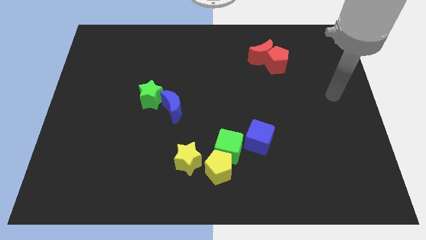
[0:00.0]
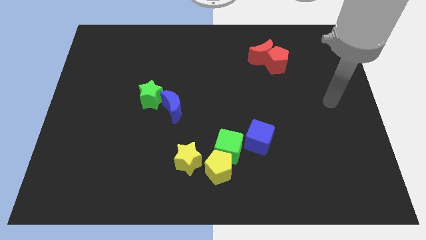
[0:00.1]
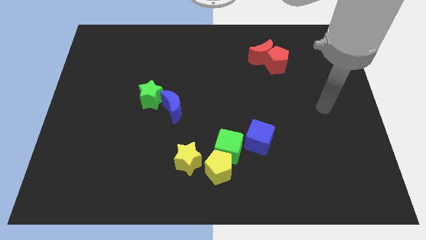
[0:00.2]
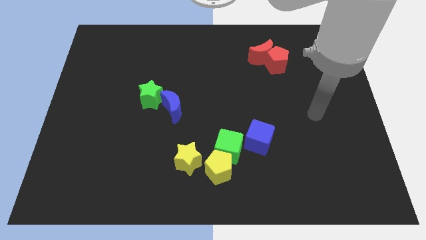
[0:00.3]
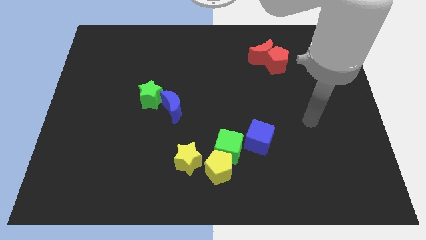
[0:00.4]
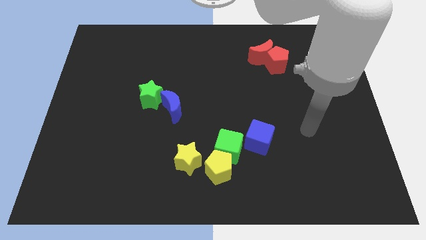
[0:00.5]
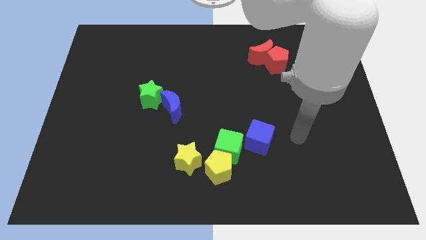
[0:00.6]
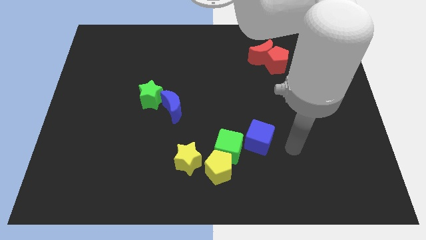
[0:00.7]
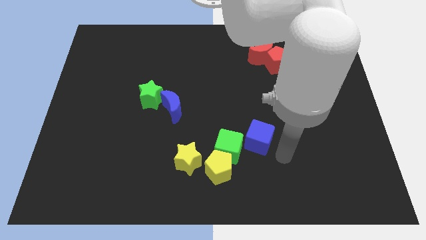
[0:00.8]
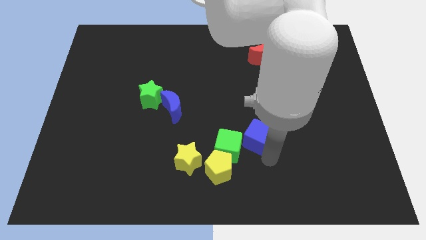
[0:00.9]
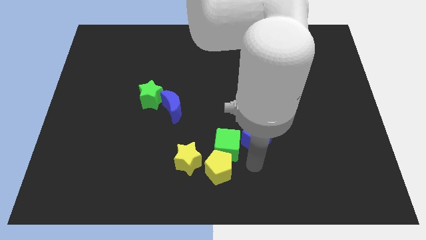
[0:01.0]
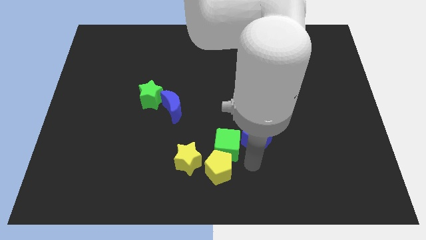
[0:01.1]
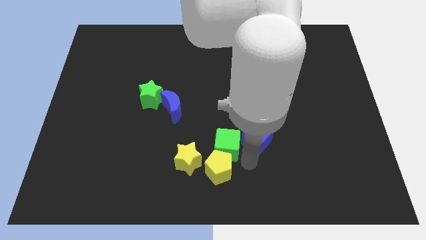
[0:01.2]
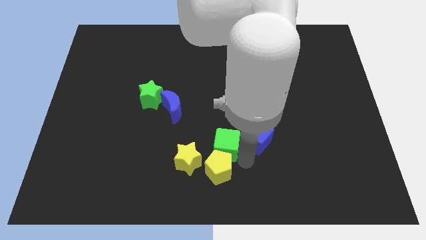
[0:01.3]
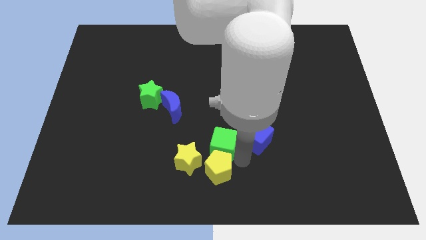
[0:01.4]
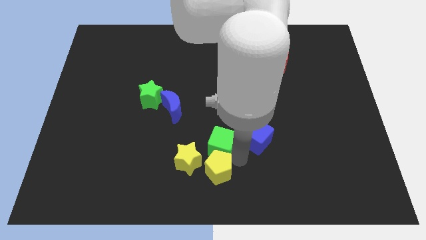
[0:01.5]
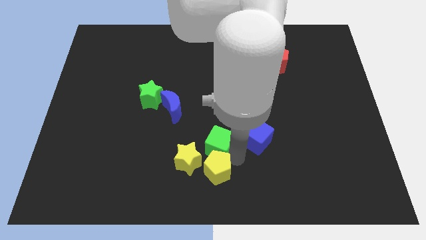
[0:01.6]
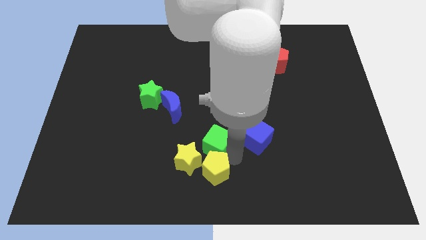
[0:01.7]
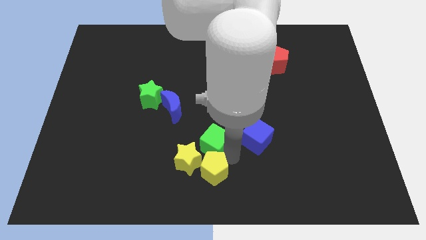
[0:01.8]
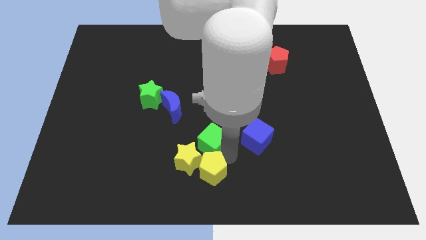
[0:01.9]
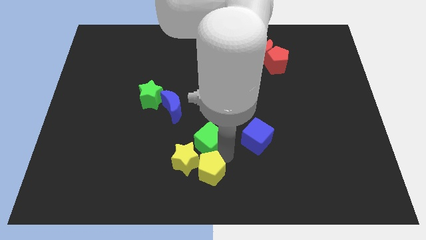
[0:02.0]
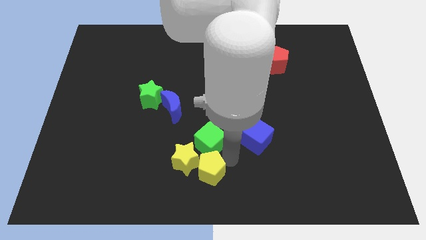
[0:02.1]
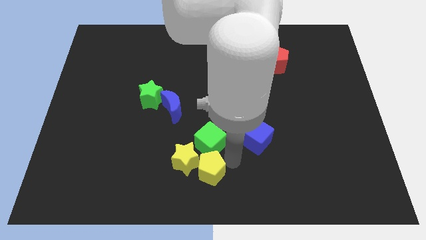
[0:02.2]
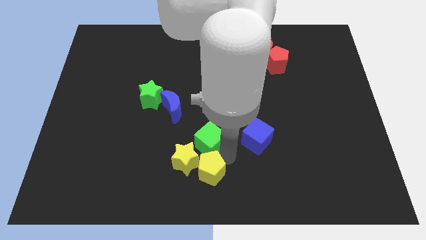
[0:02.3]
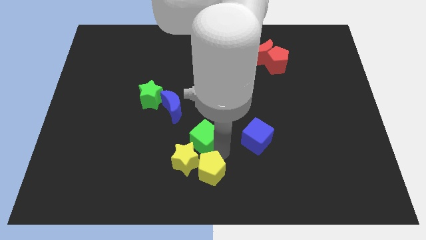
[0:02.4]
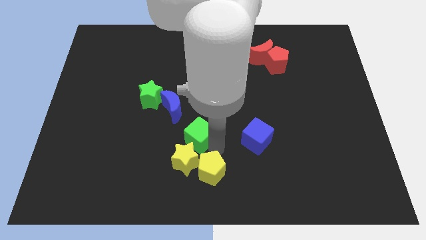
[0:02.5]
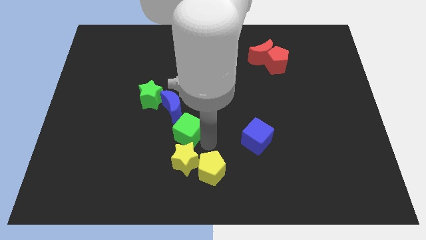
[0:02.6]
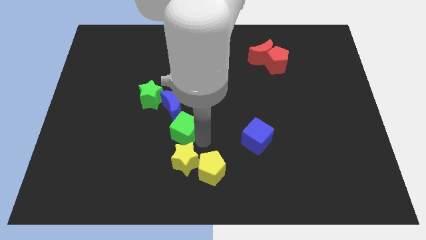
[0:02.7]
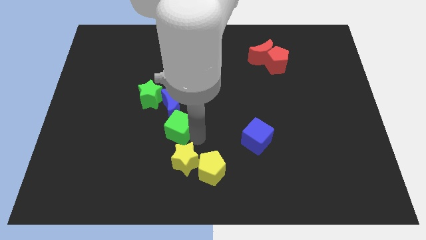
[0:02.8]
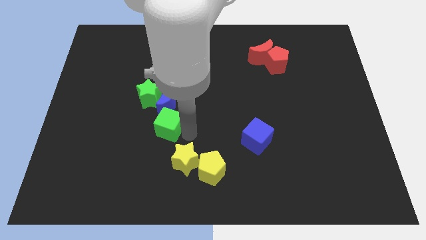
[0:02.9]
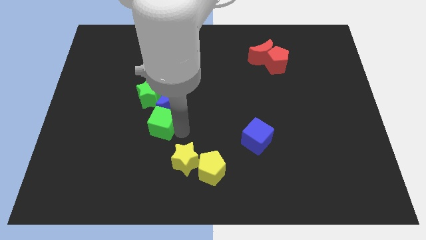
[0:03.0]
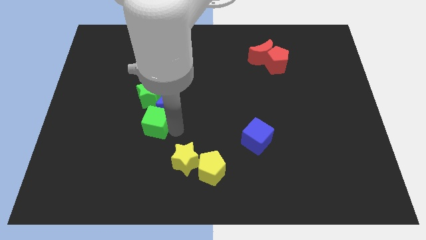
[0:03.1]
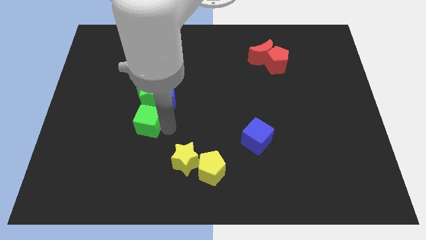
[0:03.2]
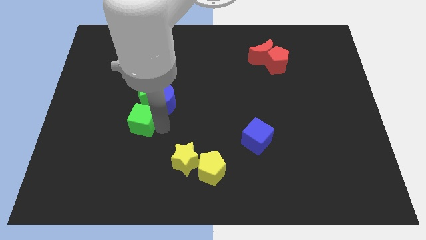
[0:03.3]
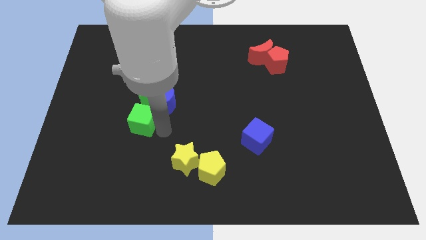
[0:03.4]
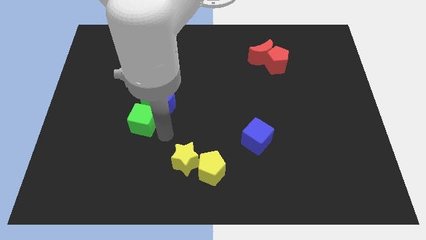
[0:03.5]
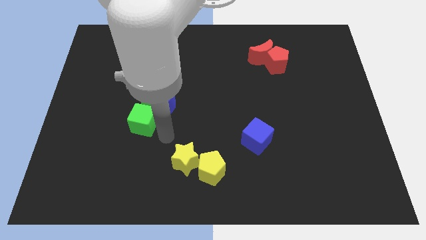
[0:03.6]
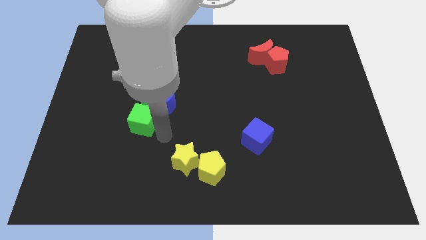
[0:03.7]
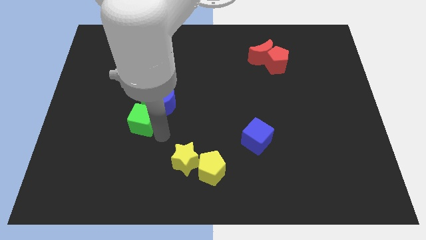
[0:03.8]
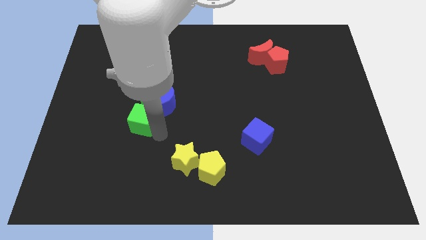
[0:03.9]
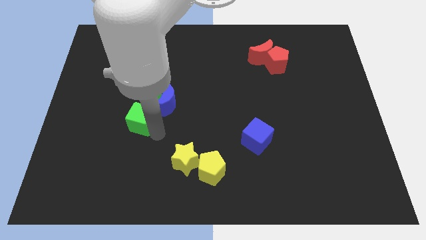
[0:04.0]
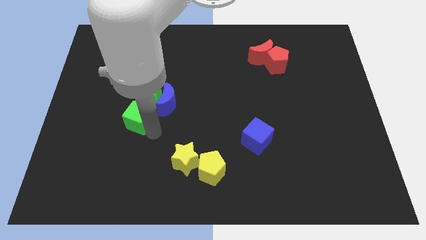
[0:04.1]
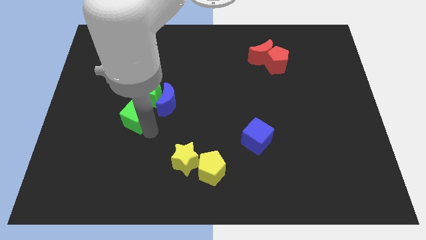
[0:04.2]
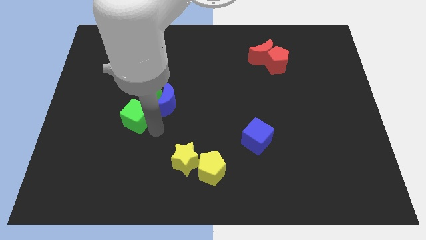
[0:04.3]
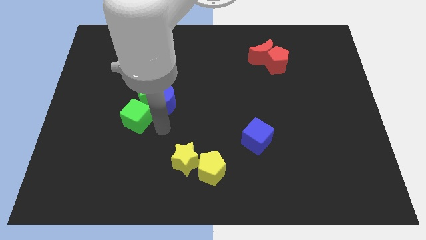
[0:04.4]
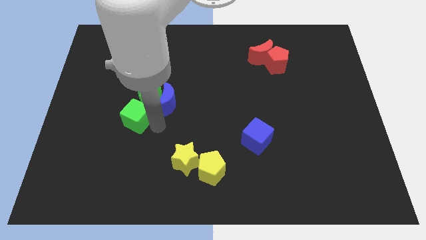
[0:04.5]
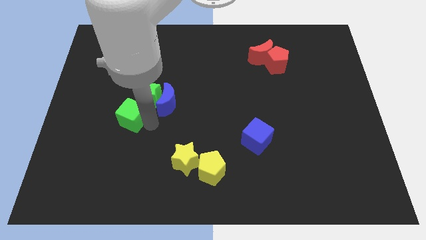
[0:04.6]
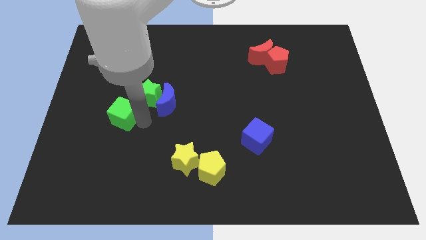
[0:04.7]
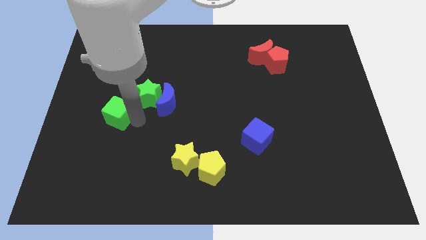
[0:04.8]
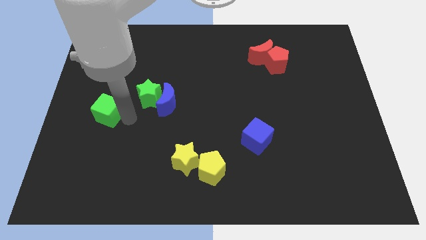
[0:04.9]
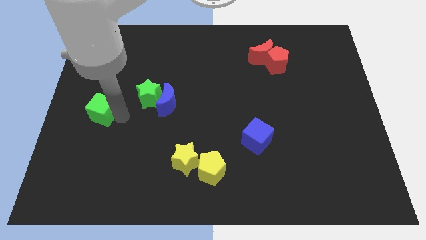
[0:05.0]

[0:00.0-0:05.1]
move the green cube to the left side of the board

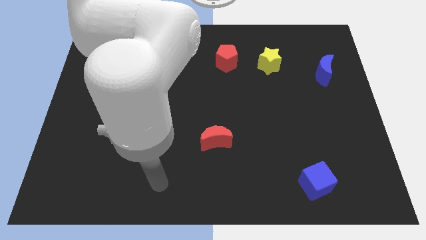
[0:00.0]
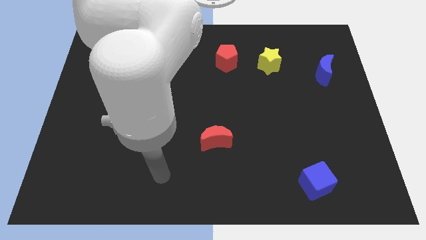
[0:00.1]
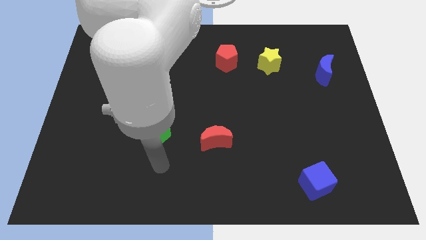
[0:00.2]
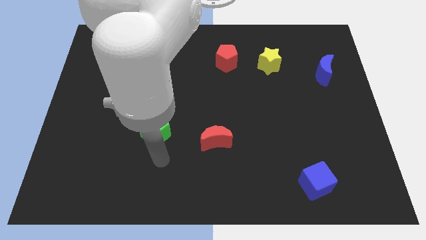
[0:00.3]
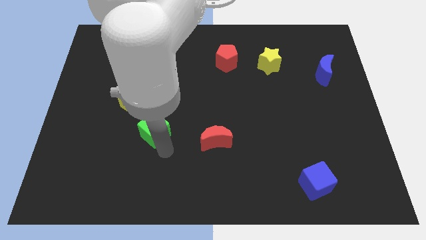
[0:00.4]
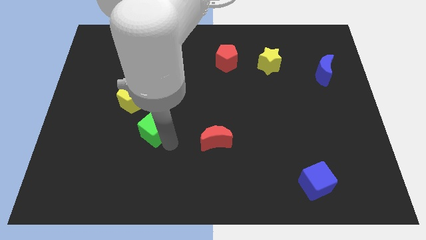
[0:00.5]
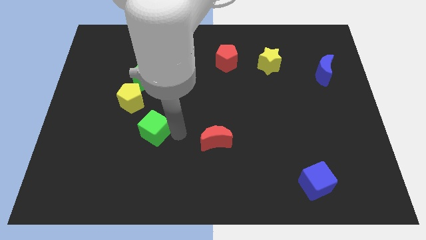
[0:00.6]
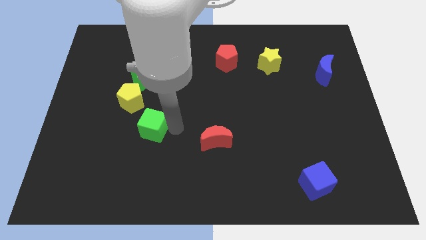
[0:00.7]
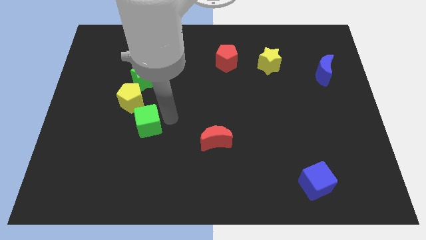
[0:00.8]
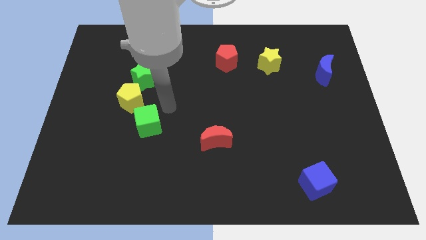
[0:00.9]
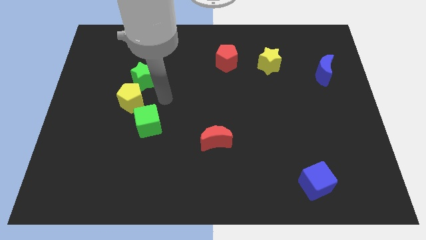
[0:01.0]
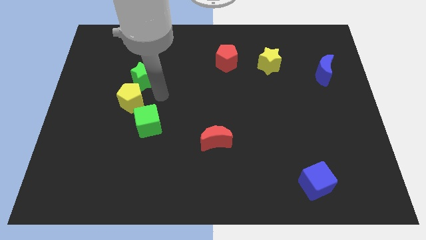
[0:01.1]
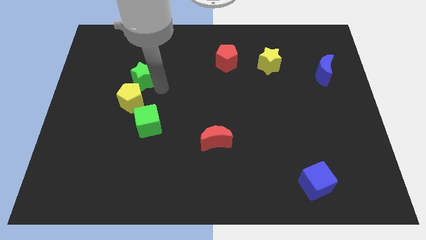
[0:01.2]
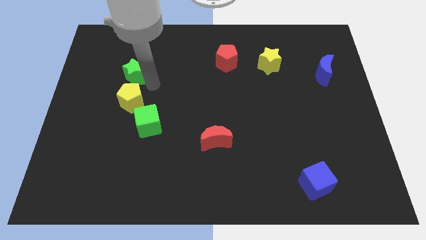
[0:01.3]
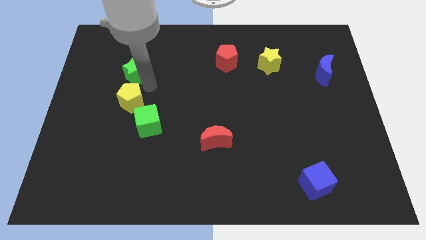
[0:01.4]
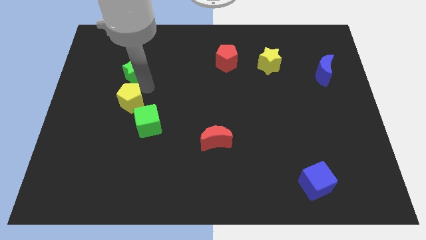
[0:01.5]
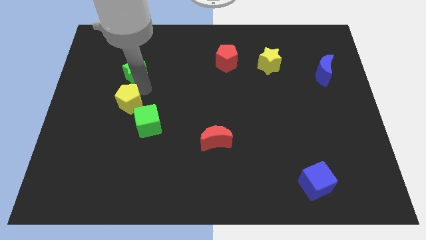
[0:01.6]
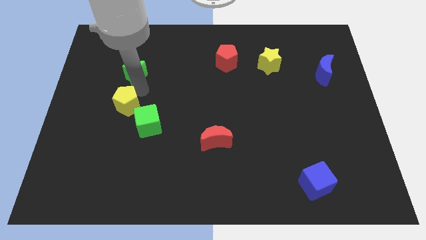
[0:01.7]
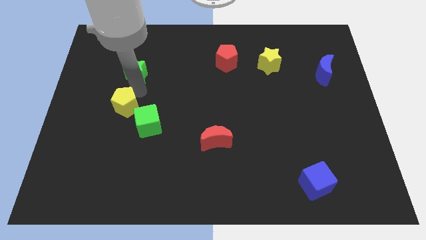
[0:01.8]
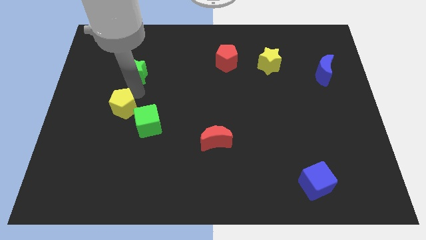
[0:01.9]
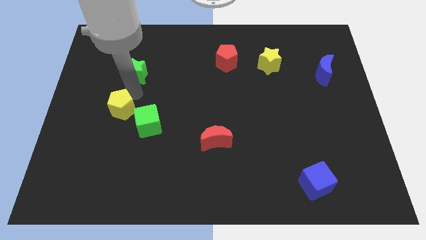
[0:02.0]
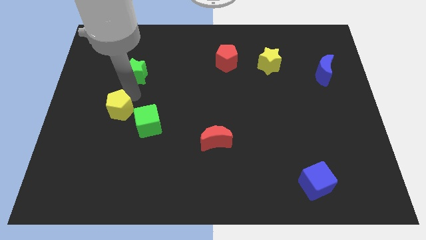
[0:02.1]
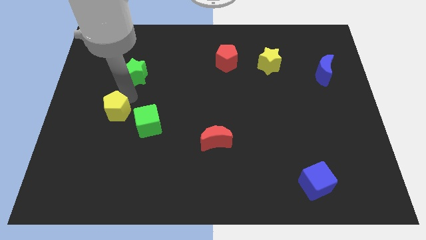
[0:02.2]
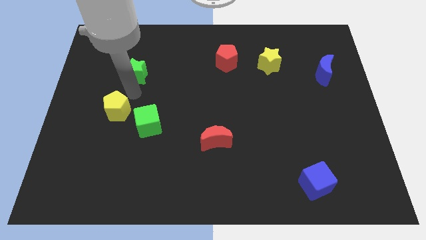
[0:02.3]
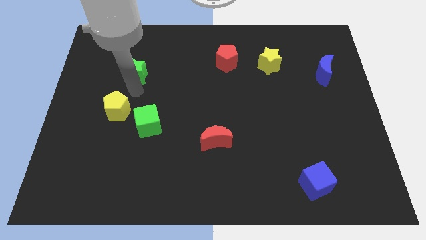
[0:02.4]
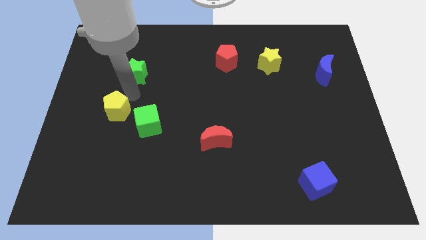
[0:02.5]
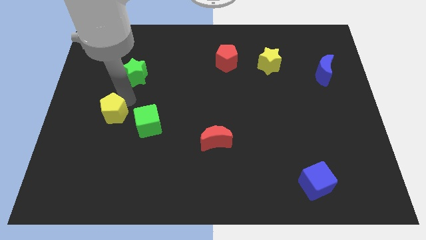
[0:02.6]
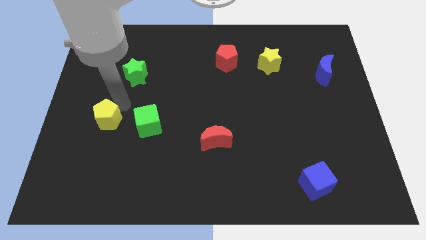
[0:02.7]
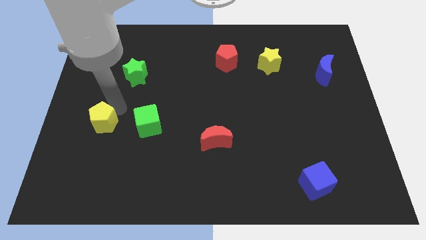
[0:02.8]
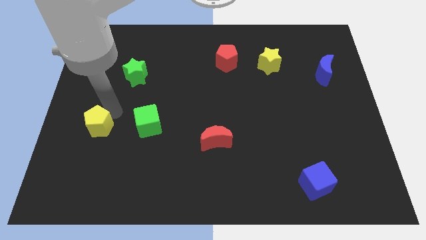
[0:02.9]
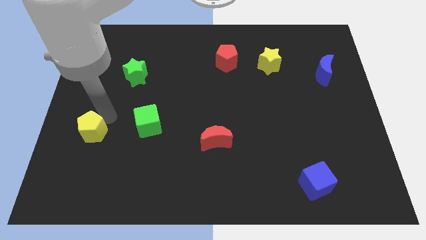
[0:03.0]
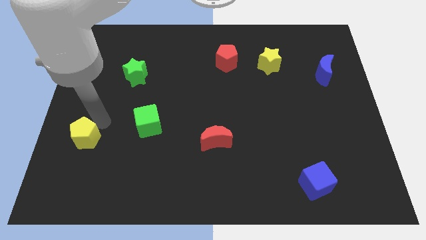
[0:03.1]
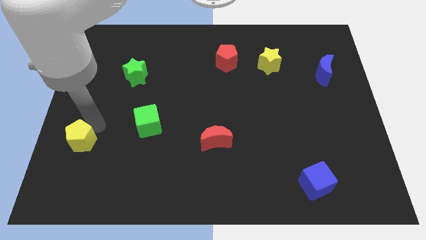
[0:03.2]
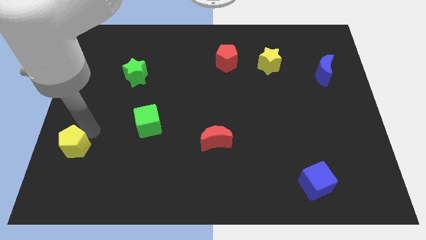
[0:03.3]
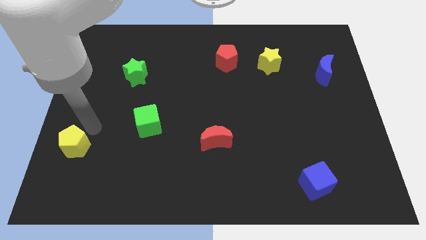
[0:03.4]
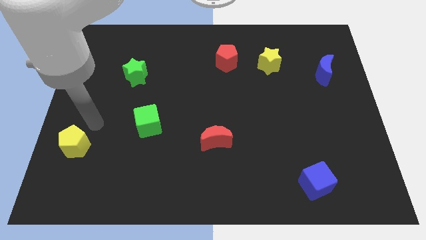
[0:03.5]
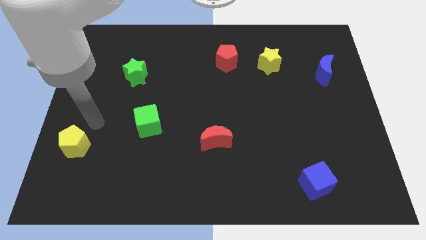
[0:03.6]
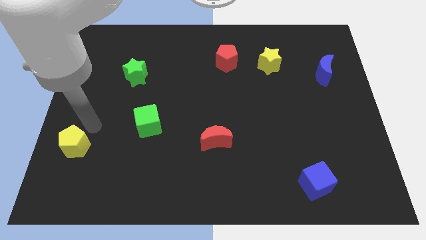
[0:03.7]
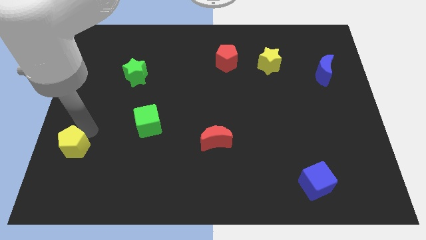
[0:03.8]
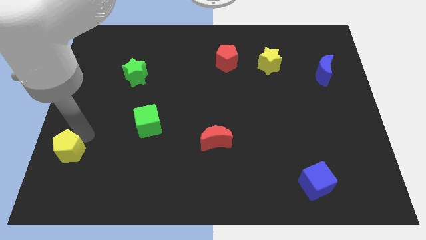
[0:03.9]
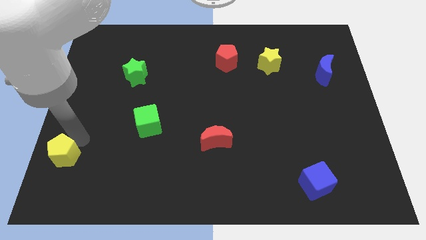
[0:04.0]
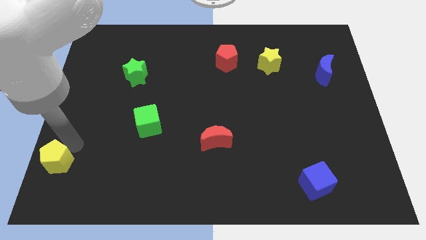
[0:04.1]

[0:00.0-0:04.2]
put the yellow pentagon to the lower left corner
